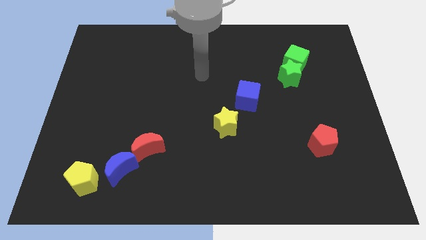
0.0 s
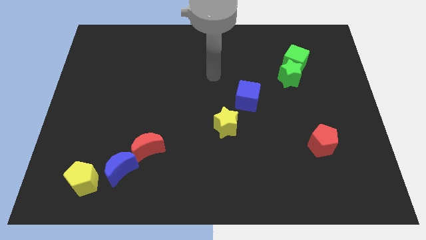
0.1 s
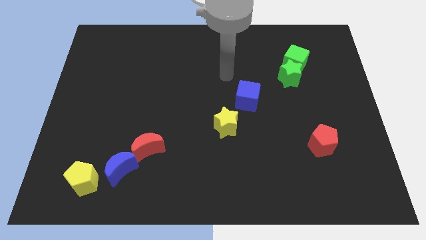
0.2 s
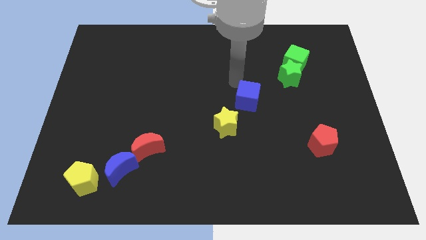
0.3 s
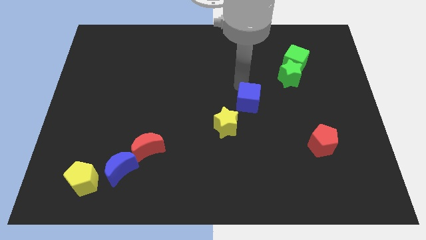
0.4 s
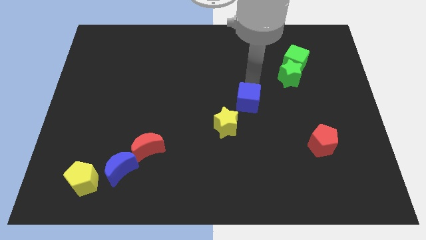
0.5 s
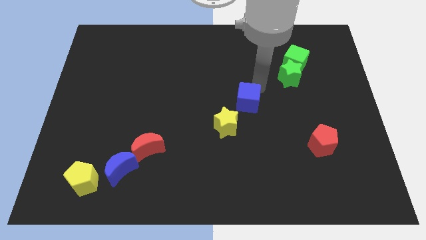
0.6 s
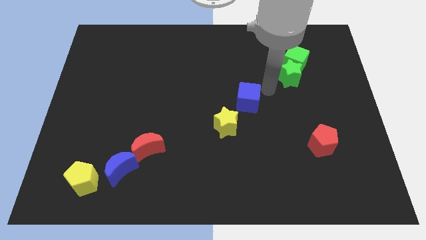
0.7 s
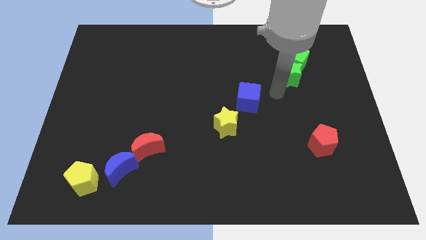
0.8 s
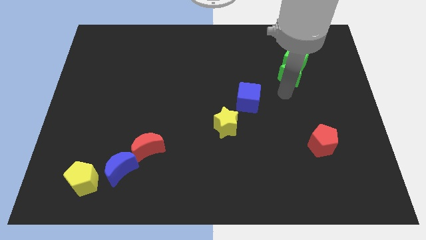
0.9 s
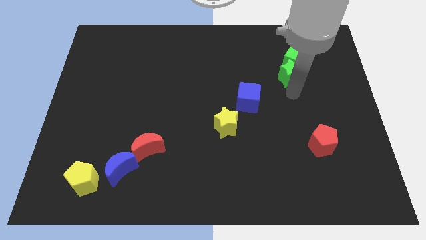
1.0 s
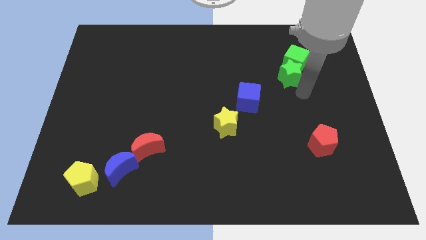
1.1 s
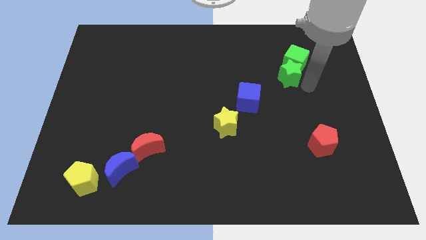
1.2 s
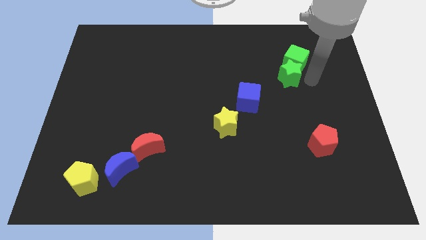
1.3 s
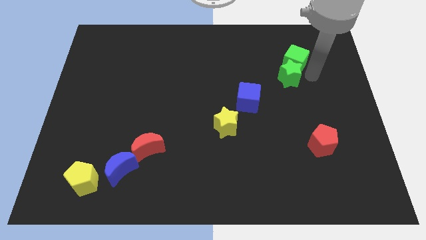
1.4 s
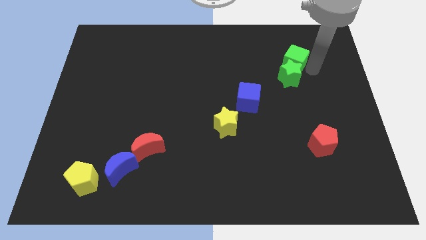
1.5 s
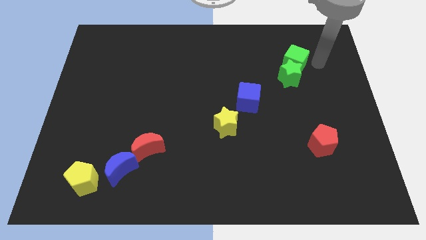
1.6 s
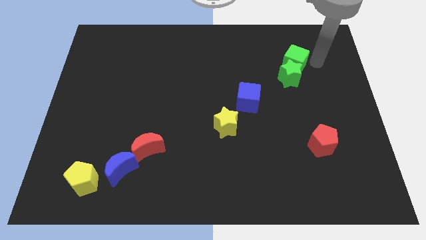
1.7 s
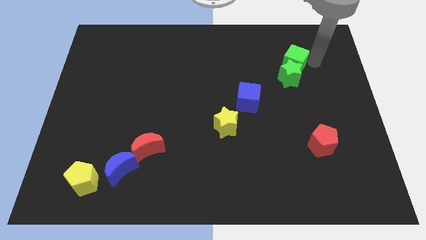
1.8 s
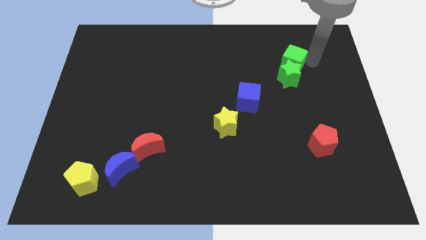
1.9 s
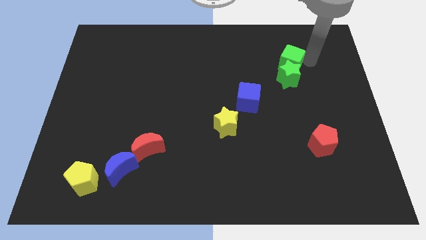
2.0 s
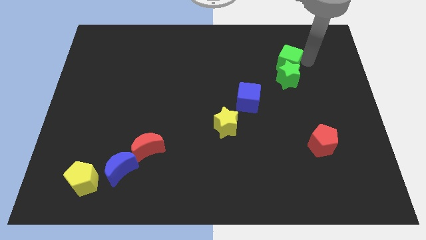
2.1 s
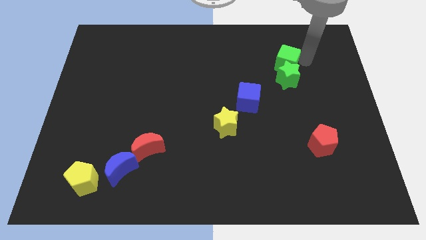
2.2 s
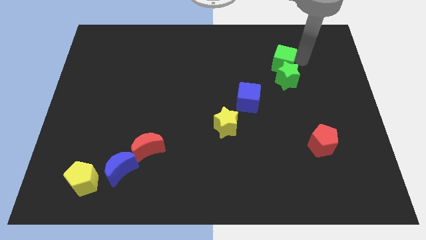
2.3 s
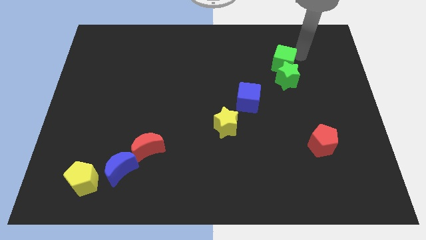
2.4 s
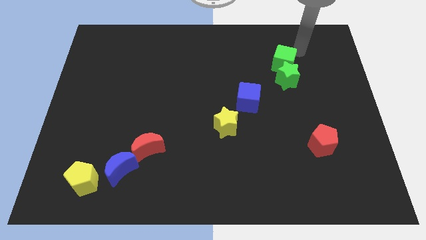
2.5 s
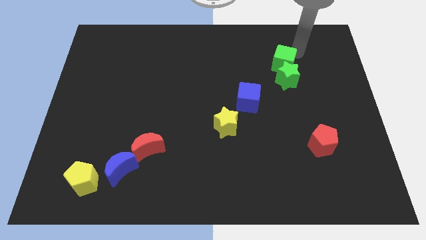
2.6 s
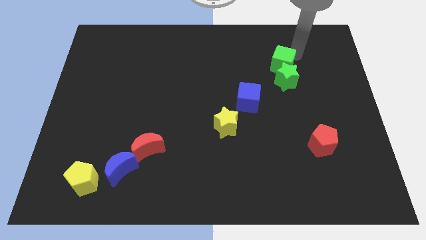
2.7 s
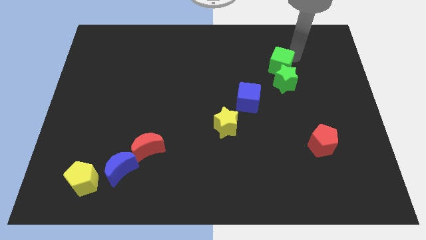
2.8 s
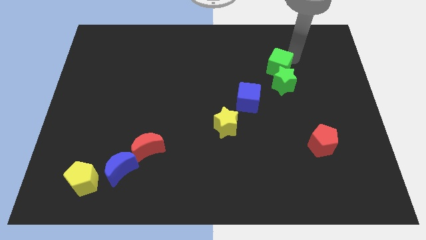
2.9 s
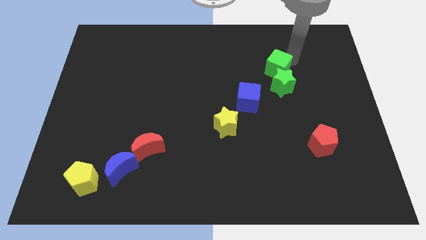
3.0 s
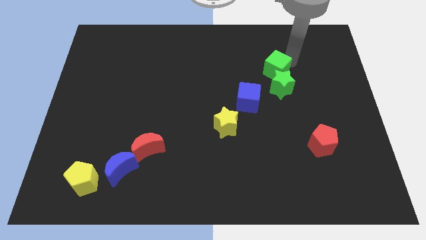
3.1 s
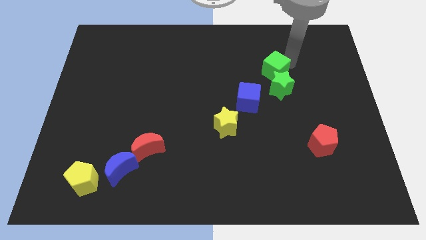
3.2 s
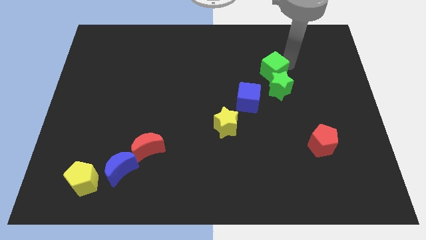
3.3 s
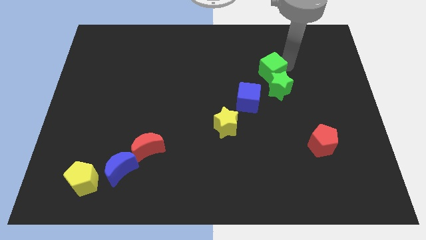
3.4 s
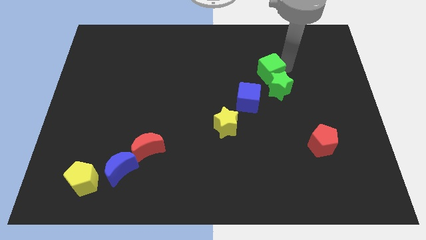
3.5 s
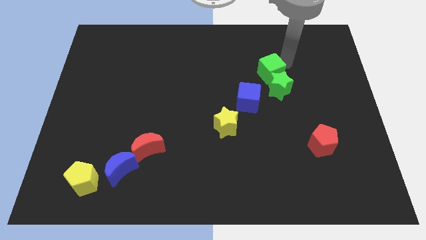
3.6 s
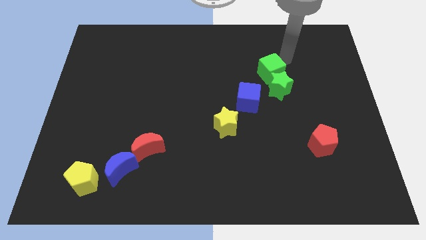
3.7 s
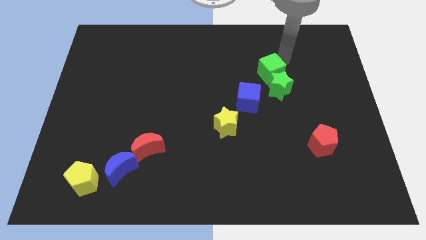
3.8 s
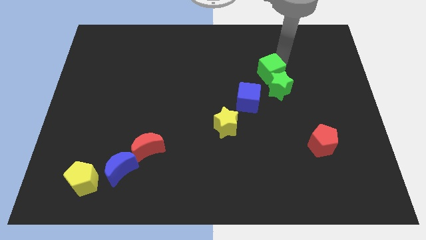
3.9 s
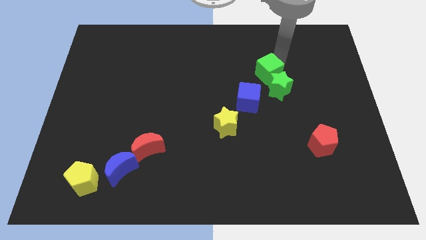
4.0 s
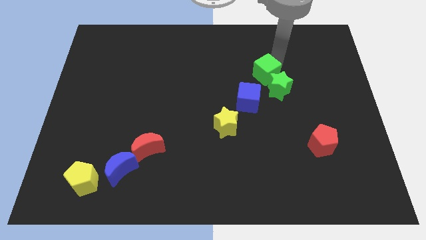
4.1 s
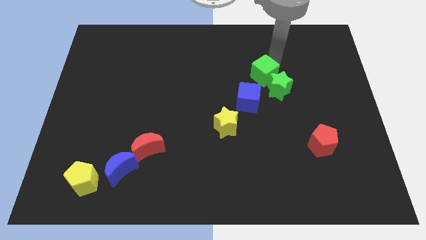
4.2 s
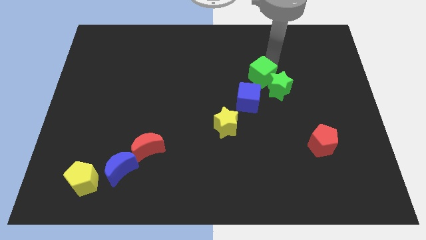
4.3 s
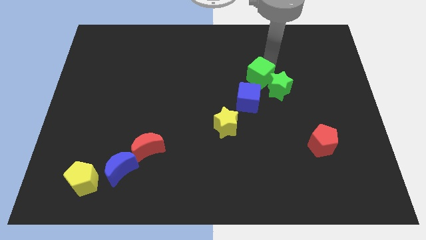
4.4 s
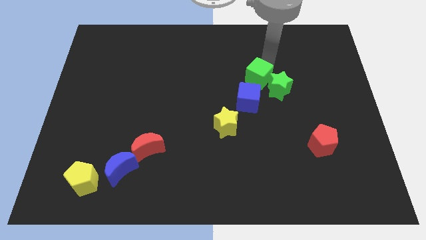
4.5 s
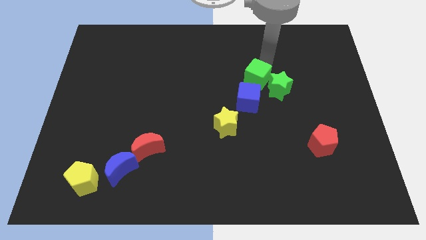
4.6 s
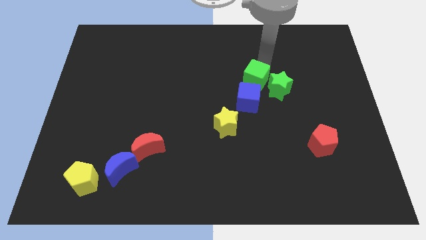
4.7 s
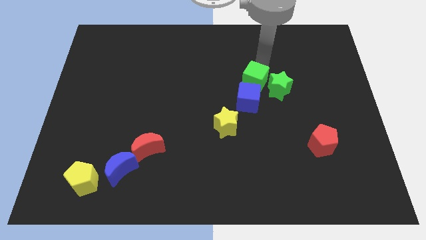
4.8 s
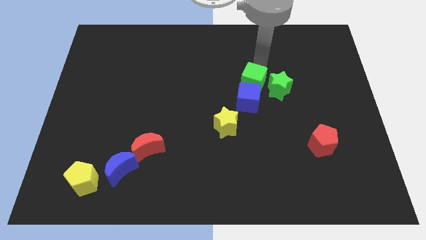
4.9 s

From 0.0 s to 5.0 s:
move the green cube towards the blue cube

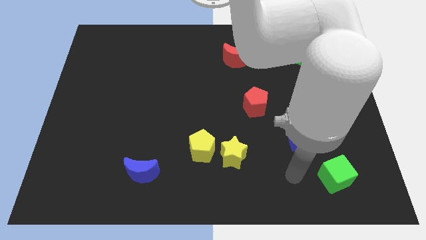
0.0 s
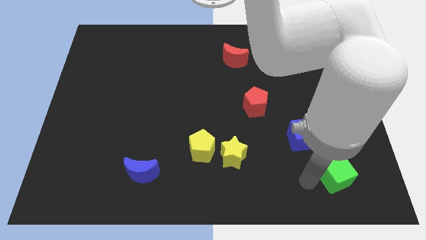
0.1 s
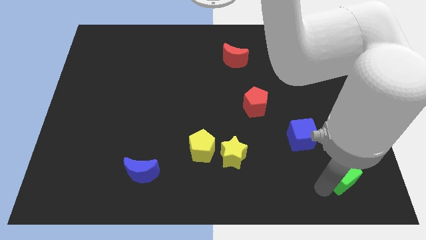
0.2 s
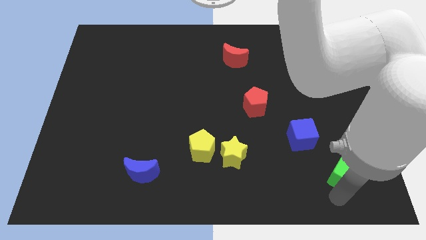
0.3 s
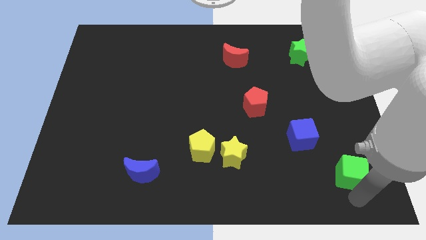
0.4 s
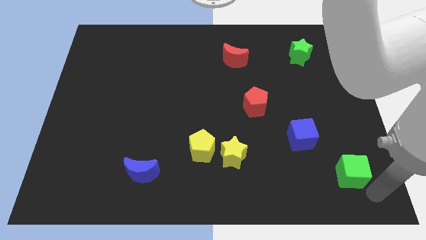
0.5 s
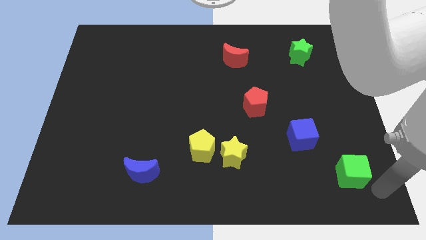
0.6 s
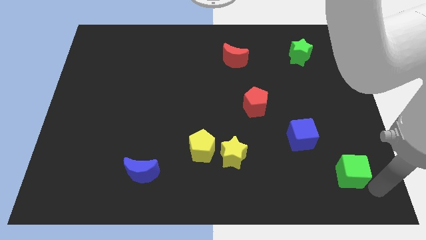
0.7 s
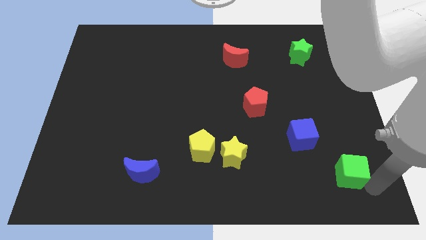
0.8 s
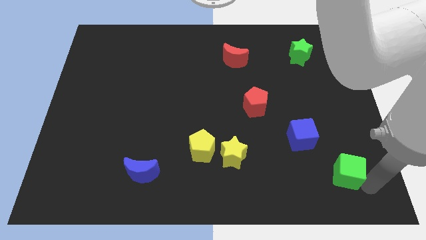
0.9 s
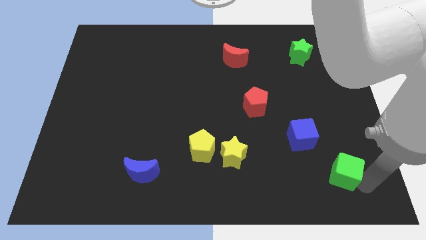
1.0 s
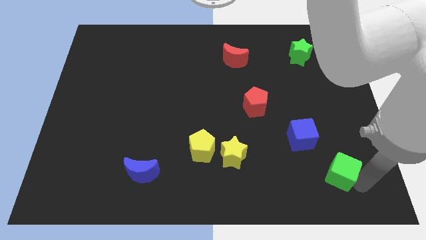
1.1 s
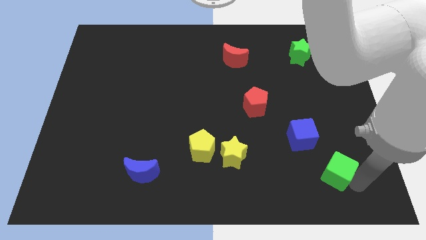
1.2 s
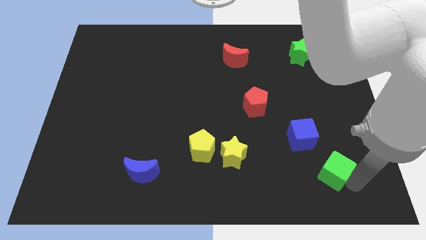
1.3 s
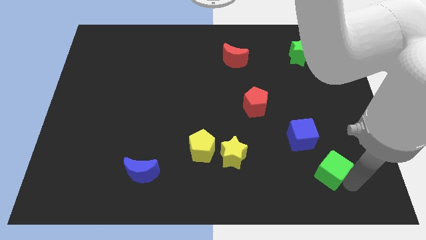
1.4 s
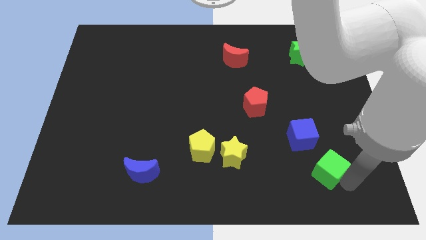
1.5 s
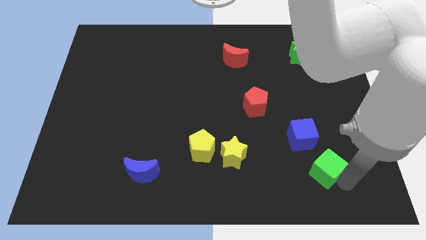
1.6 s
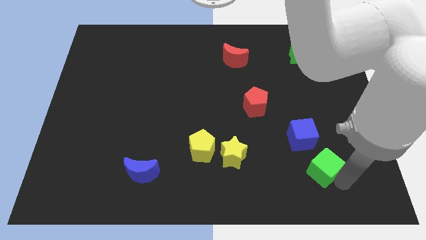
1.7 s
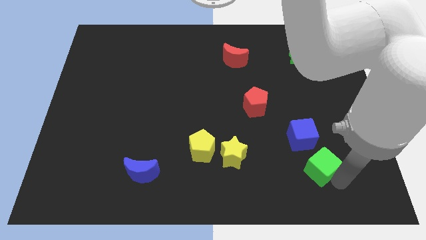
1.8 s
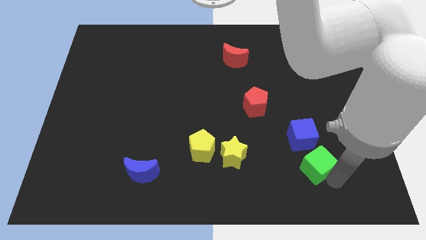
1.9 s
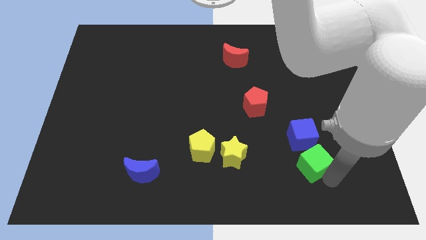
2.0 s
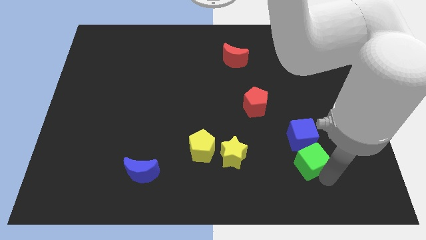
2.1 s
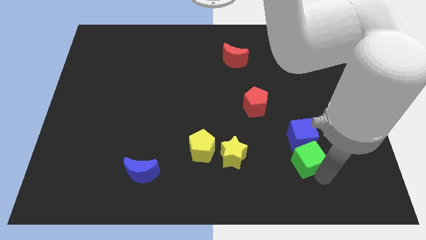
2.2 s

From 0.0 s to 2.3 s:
slide the green cube close to the blue cube

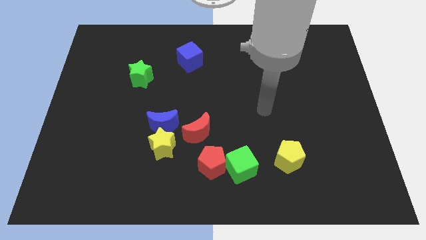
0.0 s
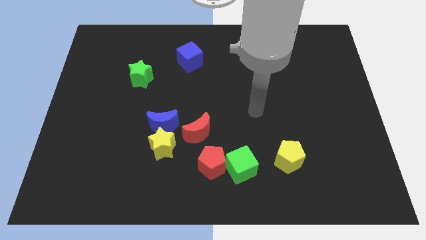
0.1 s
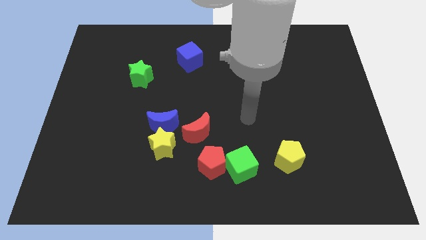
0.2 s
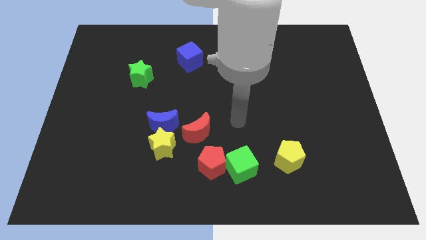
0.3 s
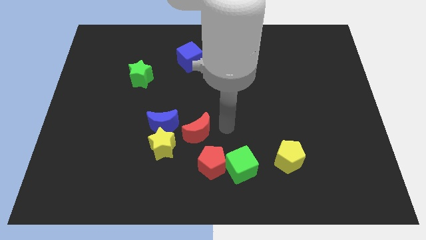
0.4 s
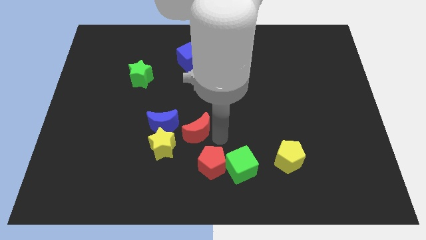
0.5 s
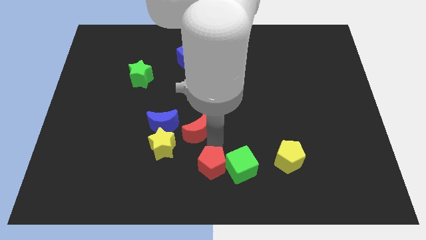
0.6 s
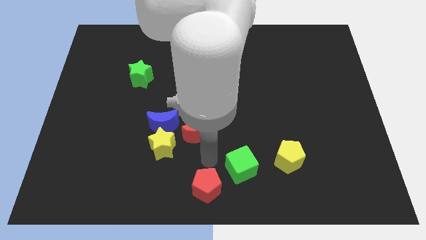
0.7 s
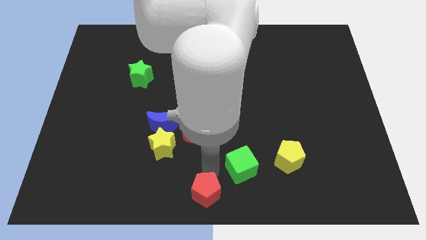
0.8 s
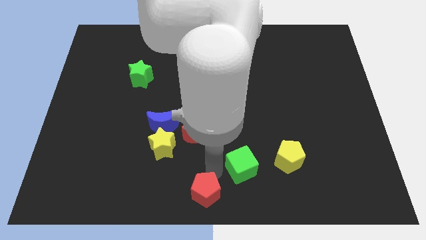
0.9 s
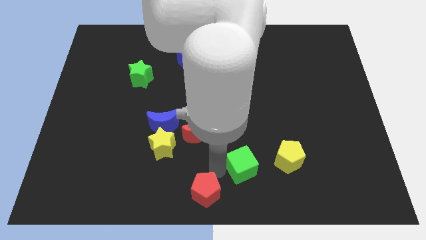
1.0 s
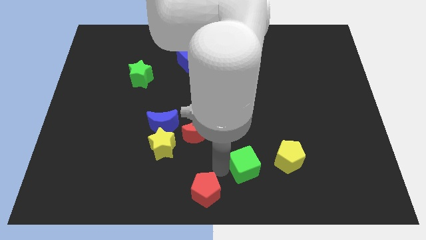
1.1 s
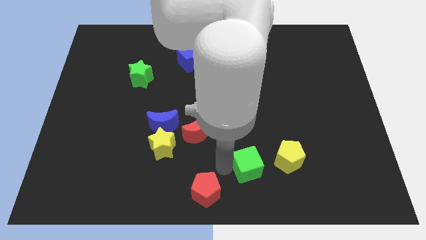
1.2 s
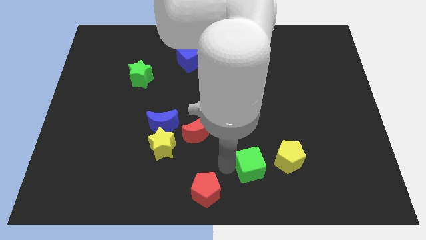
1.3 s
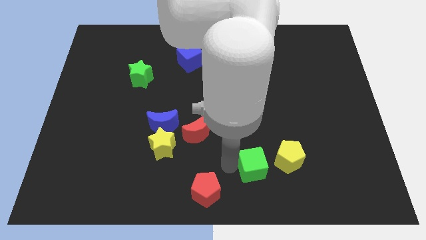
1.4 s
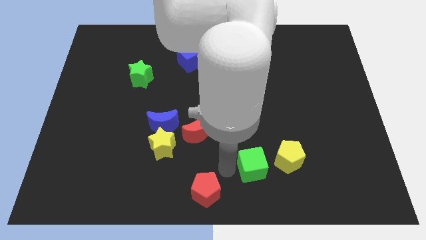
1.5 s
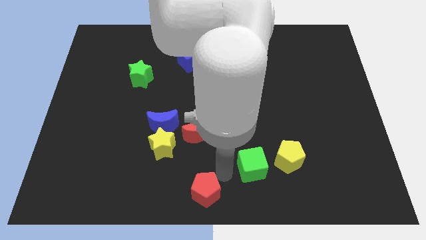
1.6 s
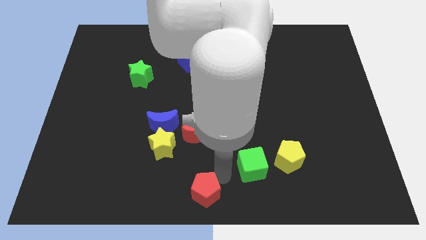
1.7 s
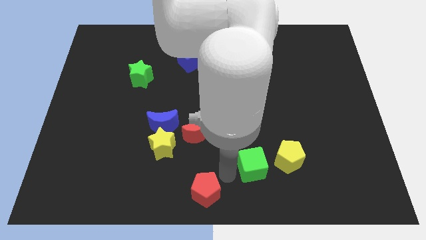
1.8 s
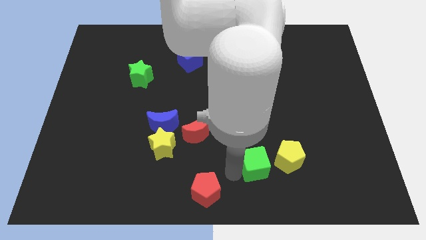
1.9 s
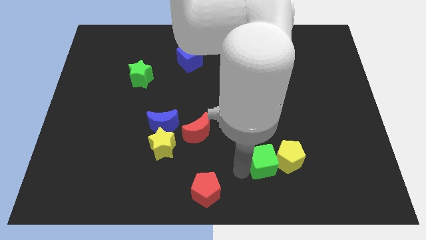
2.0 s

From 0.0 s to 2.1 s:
move the green cube next to the yellow pentagon
